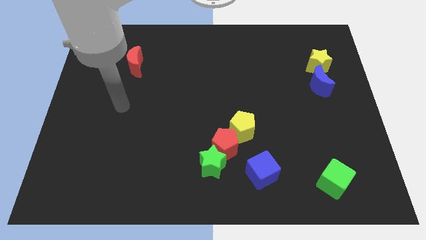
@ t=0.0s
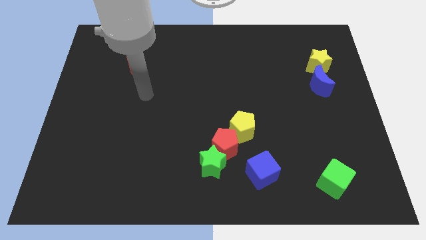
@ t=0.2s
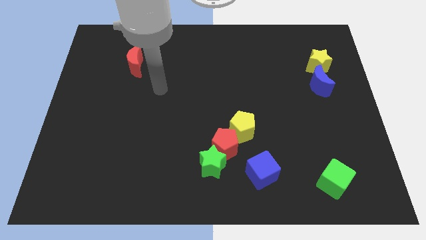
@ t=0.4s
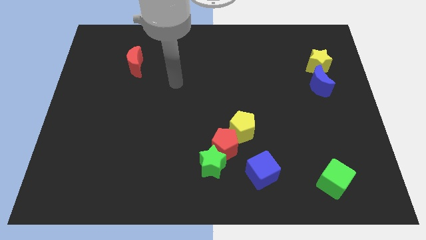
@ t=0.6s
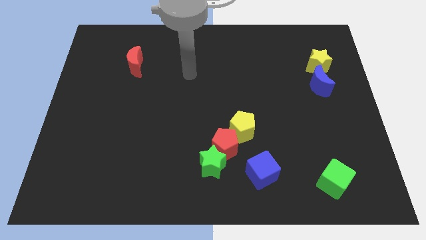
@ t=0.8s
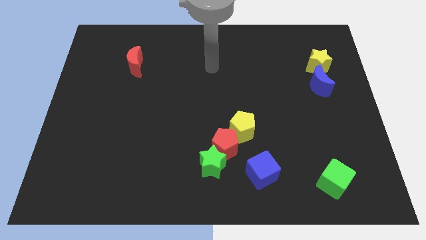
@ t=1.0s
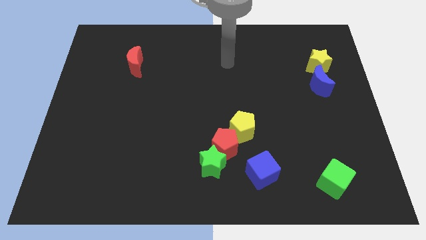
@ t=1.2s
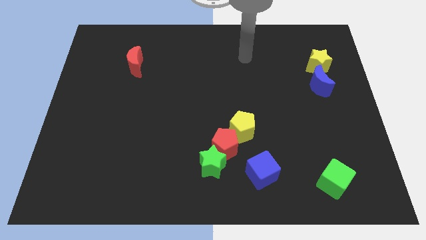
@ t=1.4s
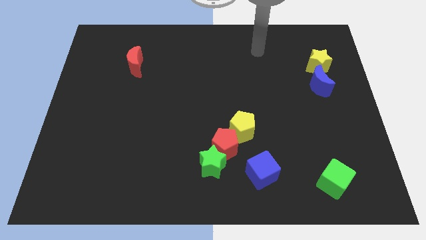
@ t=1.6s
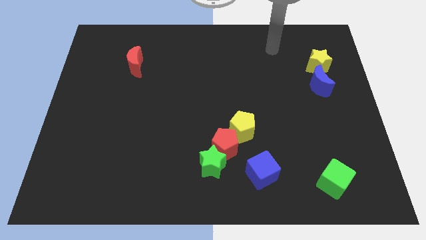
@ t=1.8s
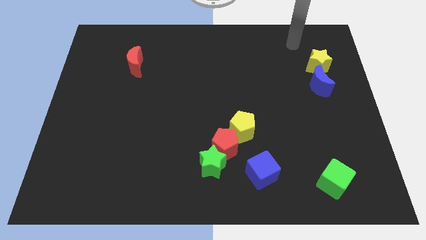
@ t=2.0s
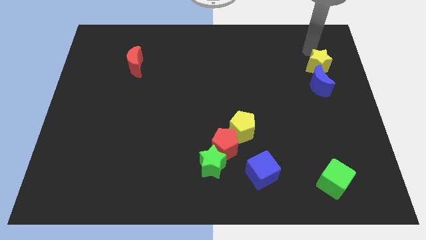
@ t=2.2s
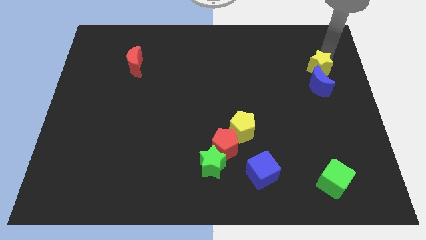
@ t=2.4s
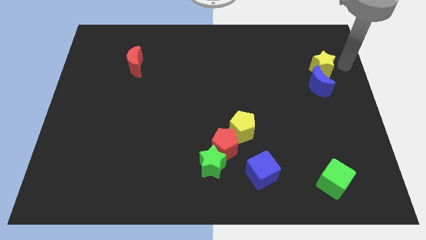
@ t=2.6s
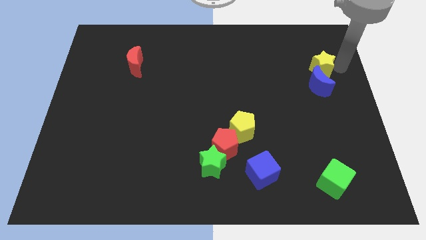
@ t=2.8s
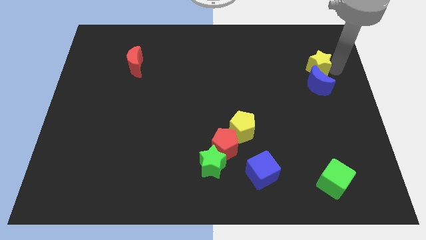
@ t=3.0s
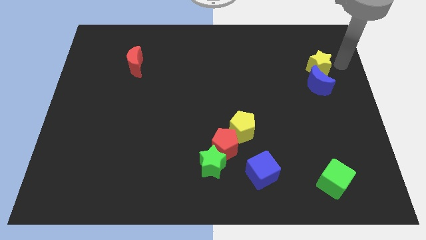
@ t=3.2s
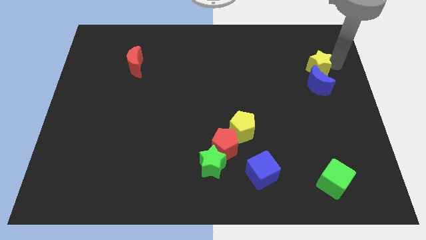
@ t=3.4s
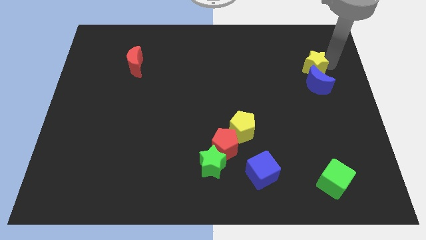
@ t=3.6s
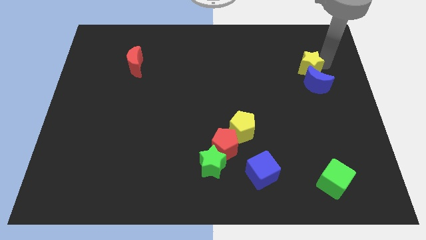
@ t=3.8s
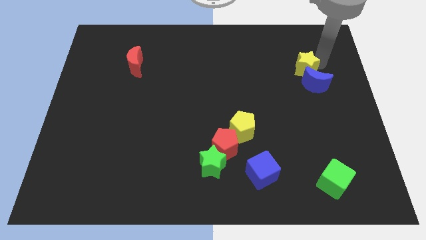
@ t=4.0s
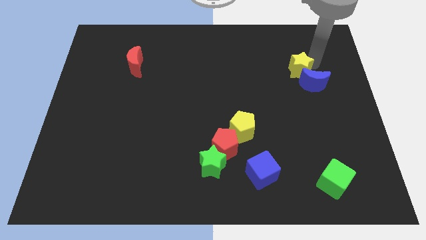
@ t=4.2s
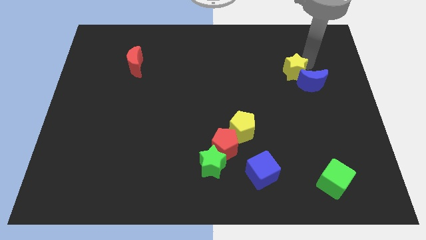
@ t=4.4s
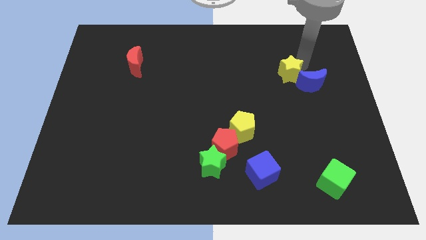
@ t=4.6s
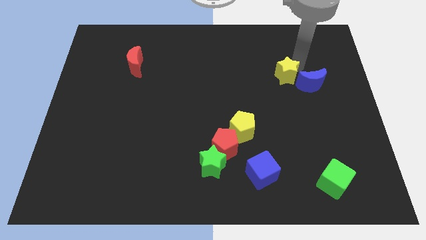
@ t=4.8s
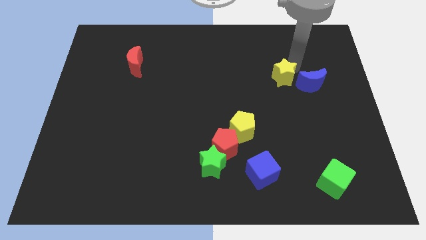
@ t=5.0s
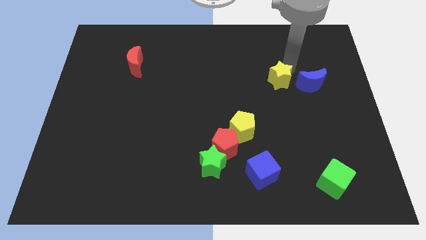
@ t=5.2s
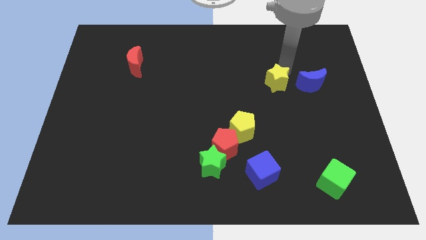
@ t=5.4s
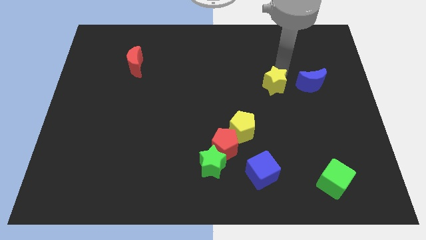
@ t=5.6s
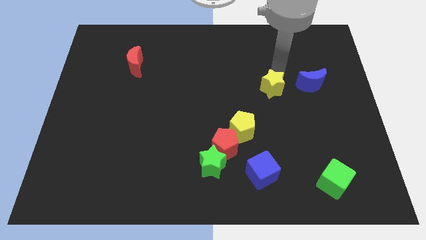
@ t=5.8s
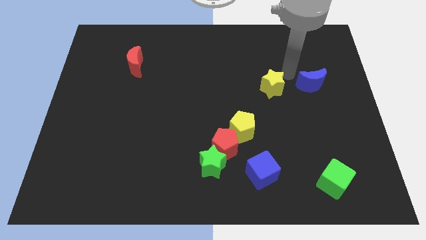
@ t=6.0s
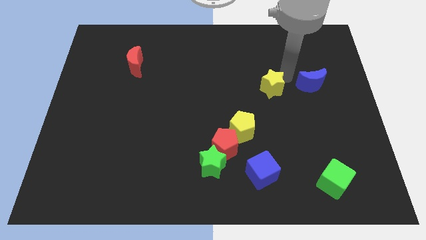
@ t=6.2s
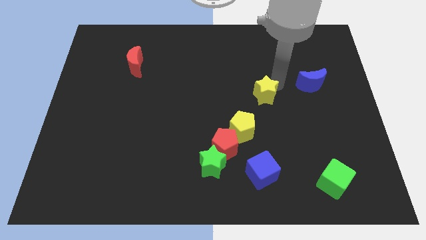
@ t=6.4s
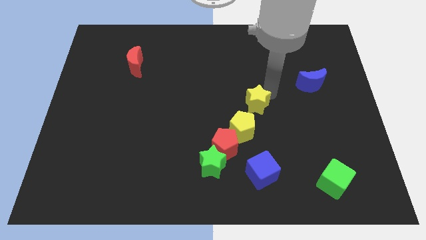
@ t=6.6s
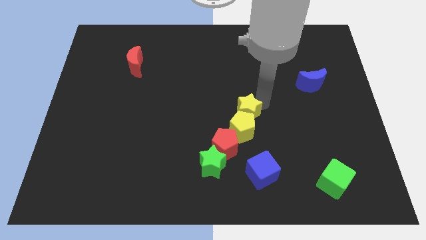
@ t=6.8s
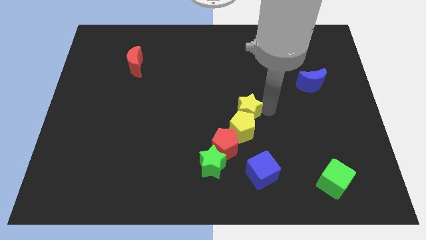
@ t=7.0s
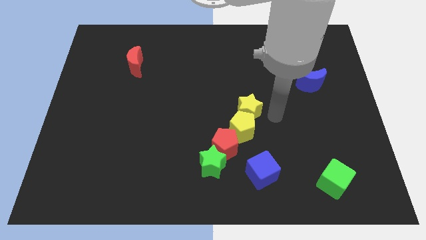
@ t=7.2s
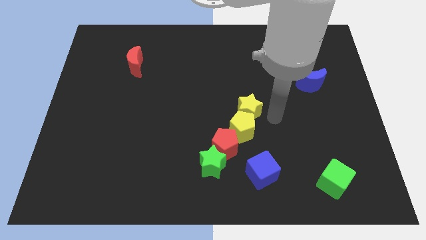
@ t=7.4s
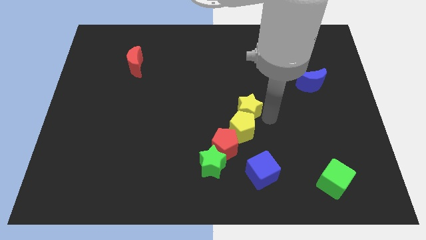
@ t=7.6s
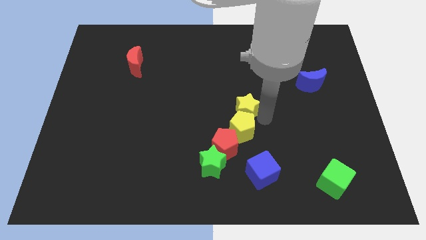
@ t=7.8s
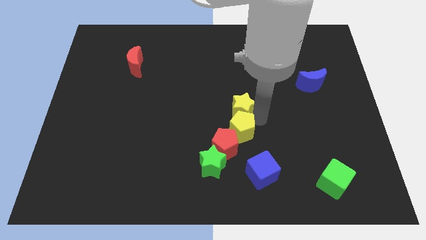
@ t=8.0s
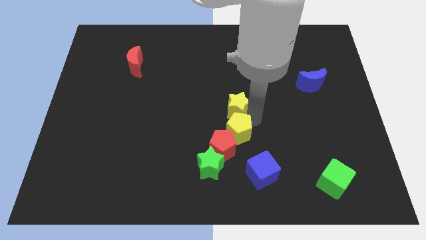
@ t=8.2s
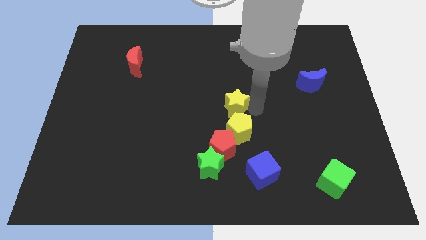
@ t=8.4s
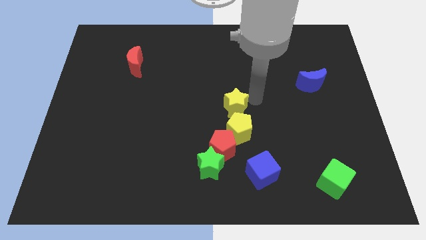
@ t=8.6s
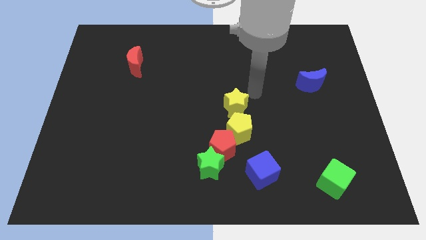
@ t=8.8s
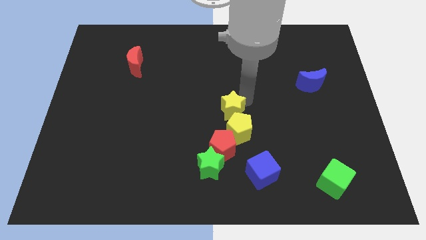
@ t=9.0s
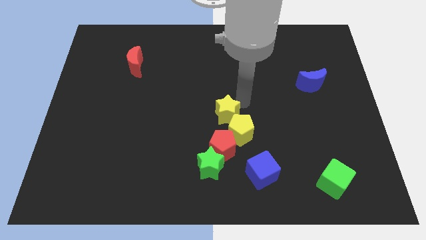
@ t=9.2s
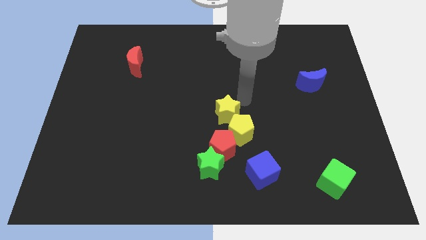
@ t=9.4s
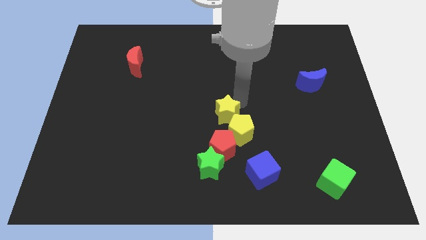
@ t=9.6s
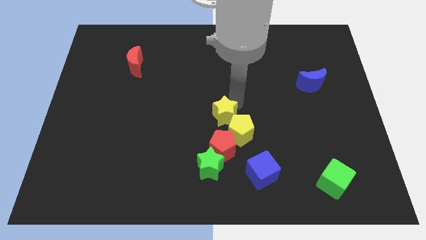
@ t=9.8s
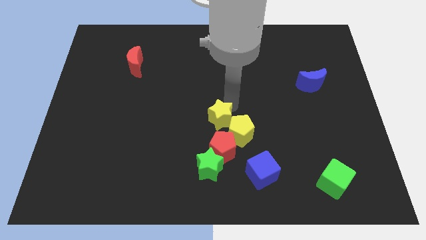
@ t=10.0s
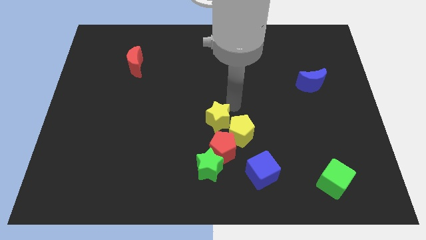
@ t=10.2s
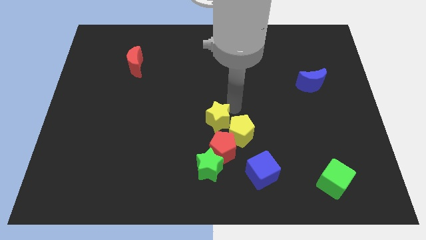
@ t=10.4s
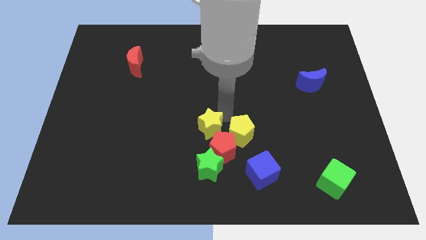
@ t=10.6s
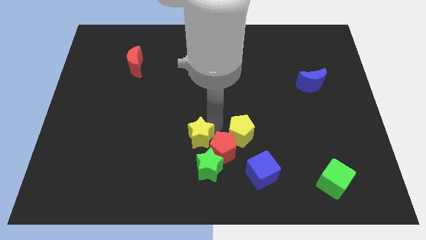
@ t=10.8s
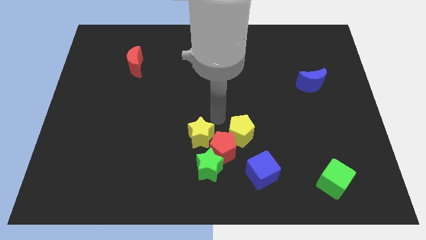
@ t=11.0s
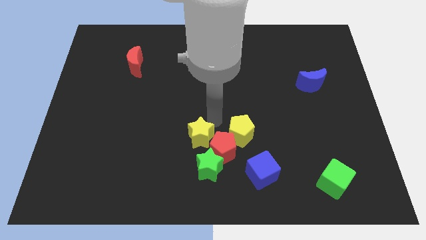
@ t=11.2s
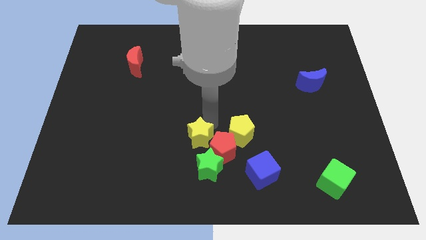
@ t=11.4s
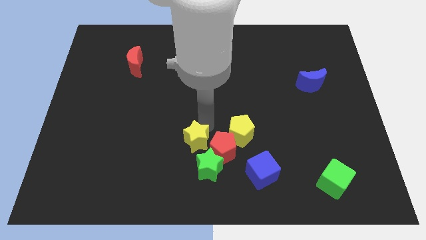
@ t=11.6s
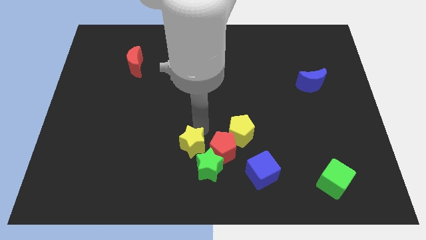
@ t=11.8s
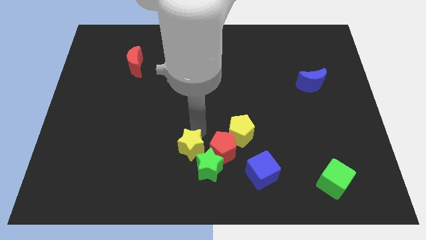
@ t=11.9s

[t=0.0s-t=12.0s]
put the yellow star diagonally down and to the left of the red pentagon

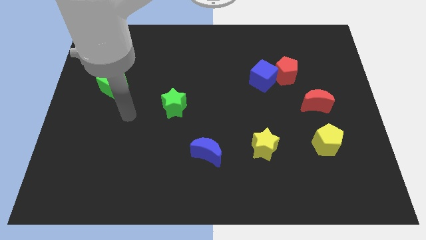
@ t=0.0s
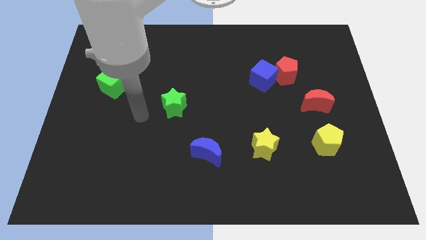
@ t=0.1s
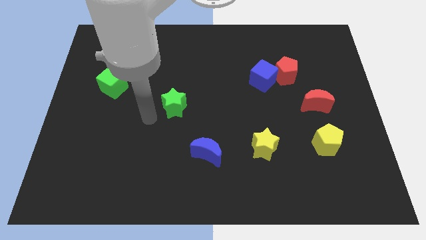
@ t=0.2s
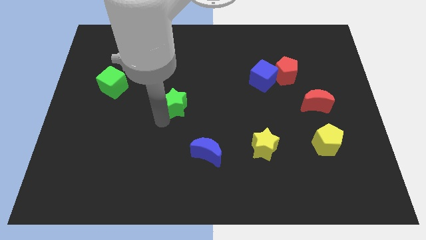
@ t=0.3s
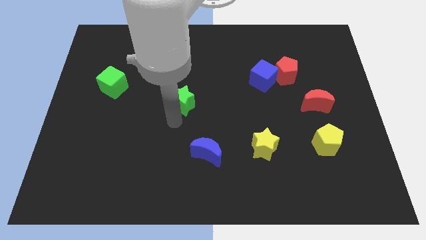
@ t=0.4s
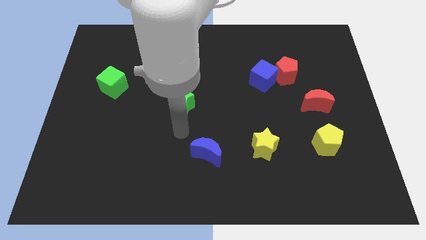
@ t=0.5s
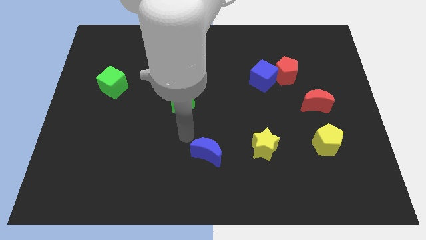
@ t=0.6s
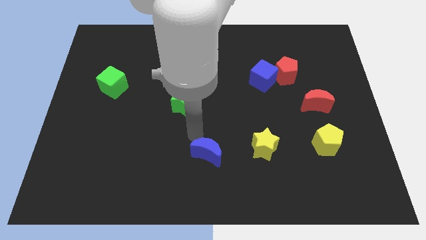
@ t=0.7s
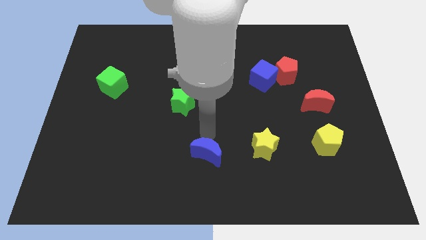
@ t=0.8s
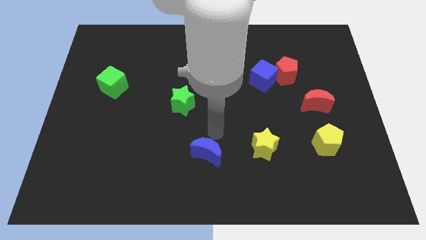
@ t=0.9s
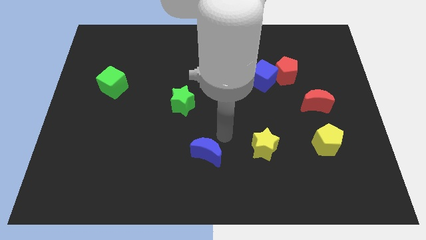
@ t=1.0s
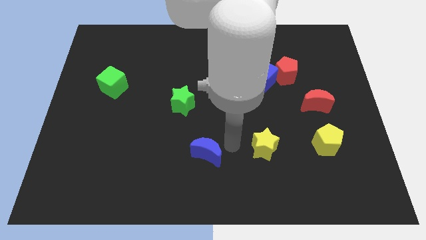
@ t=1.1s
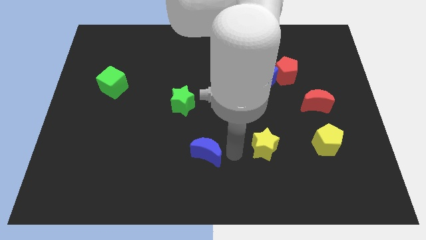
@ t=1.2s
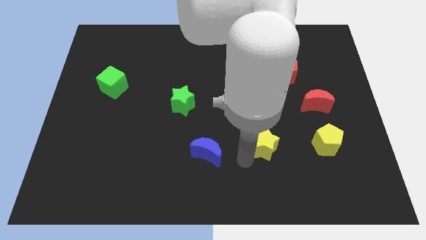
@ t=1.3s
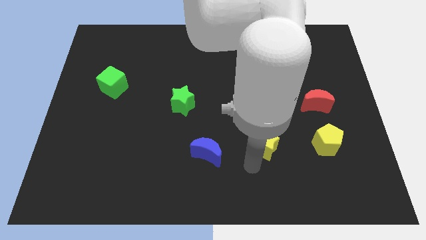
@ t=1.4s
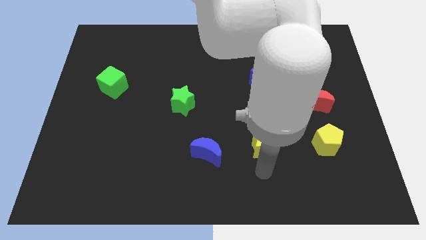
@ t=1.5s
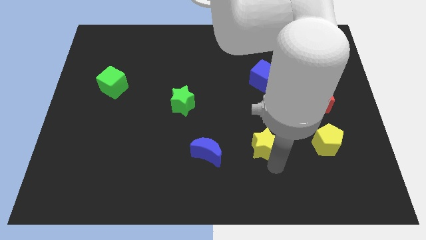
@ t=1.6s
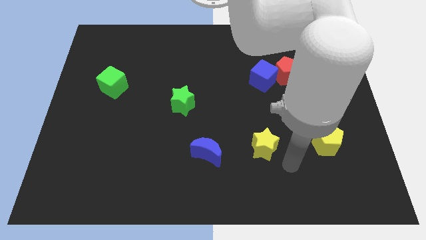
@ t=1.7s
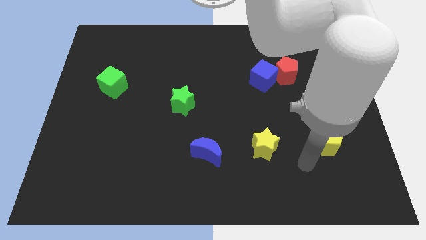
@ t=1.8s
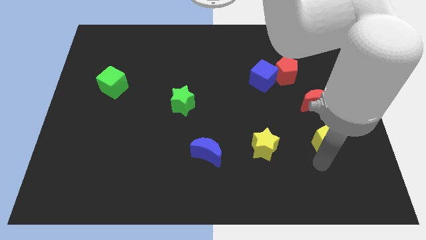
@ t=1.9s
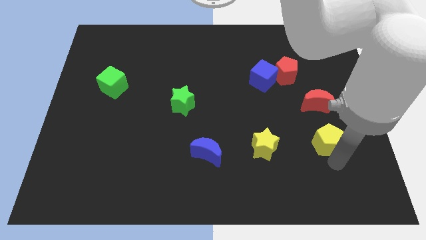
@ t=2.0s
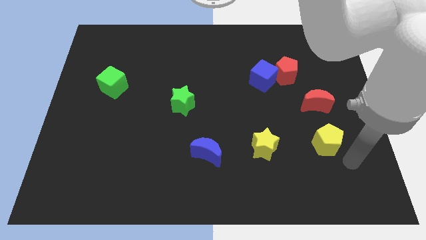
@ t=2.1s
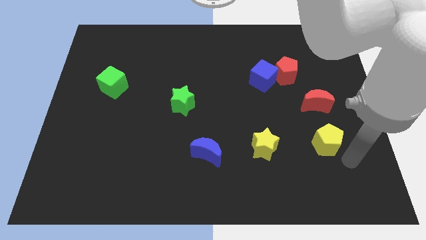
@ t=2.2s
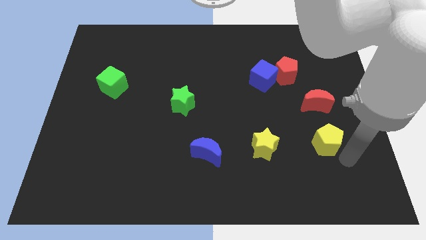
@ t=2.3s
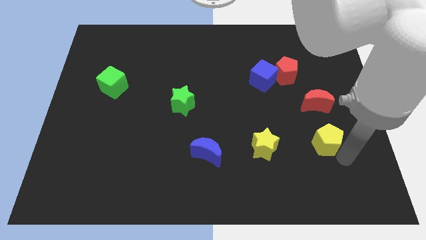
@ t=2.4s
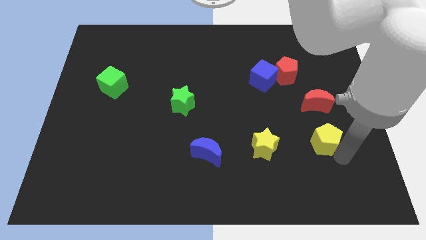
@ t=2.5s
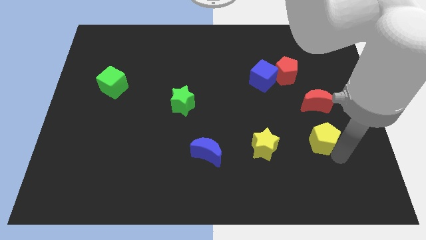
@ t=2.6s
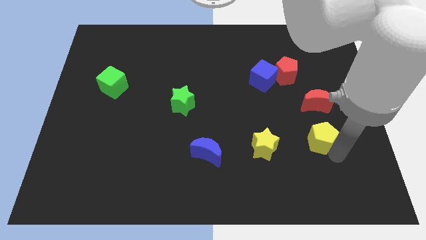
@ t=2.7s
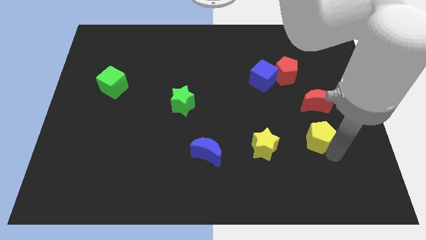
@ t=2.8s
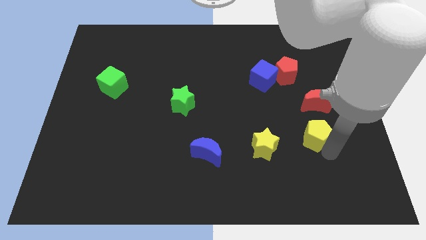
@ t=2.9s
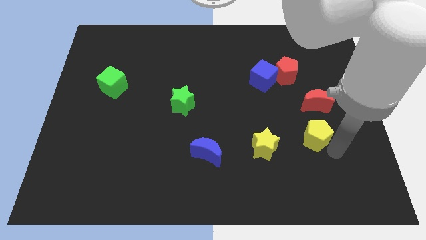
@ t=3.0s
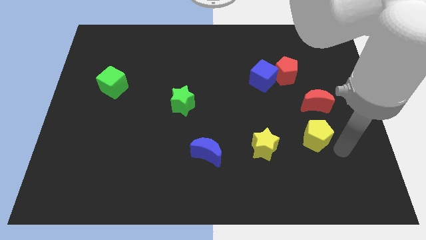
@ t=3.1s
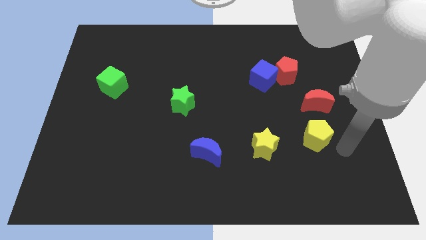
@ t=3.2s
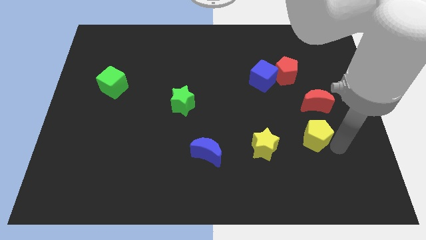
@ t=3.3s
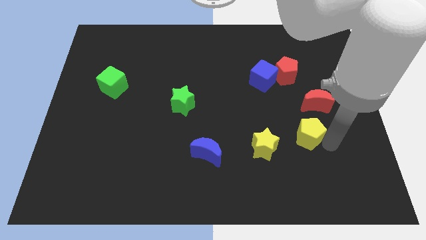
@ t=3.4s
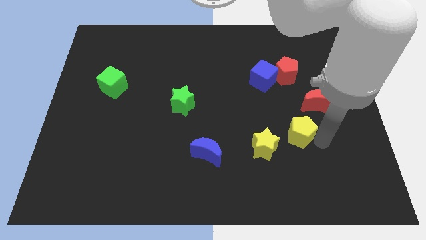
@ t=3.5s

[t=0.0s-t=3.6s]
put the yellow pentagon diagonally up and to the right of the yellow star
